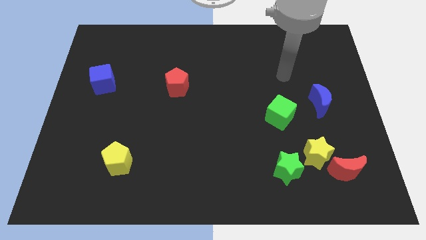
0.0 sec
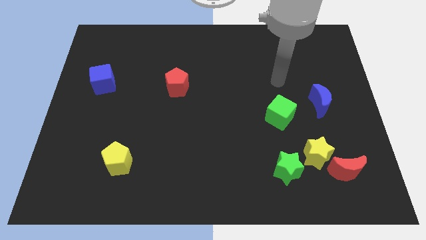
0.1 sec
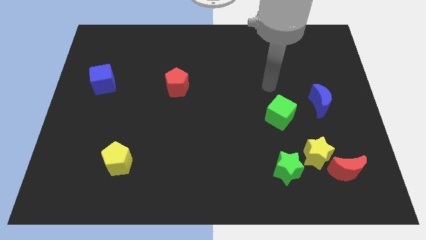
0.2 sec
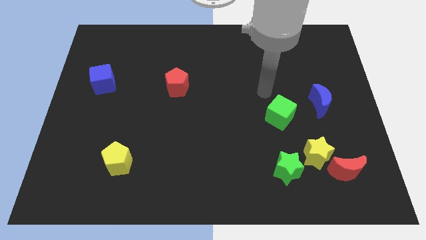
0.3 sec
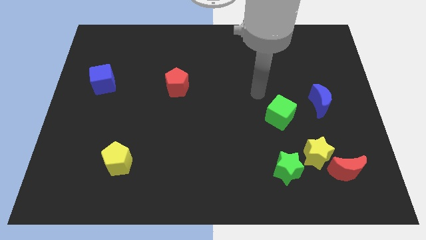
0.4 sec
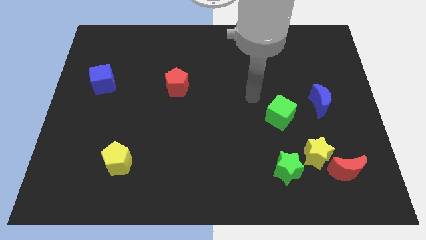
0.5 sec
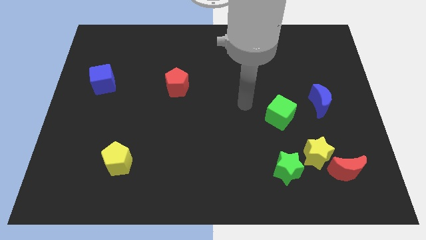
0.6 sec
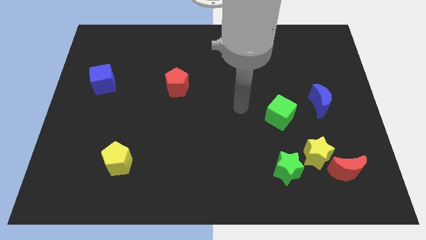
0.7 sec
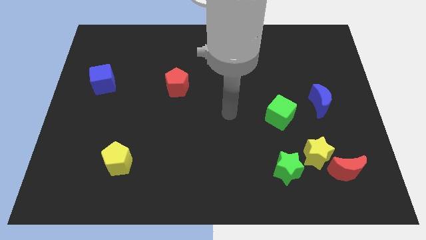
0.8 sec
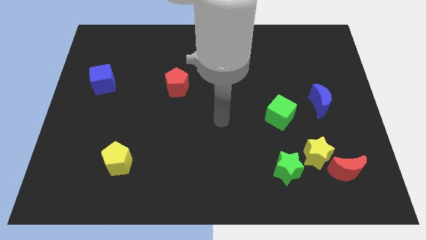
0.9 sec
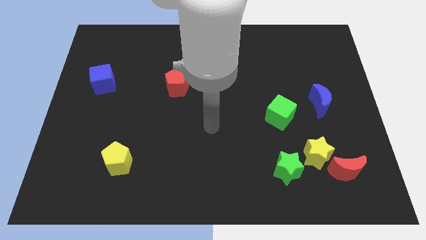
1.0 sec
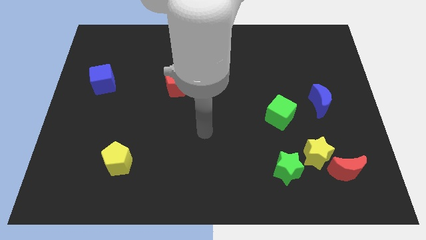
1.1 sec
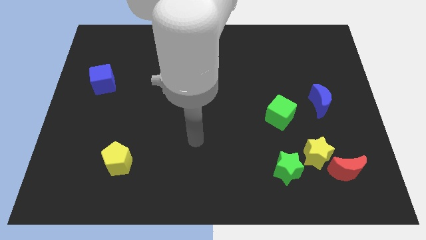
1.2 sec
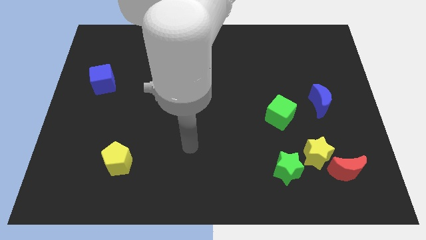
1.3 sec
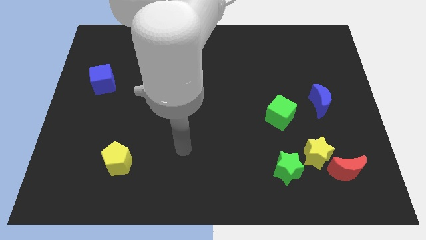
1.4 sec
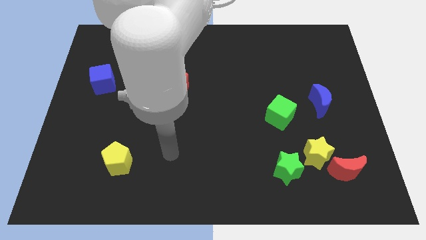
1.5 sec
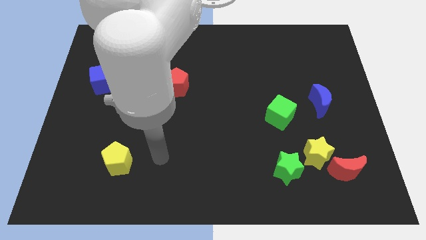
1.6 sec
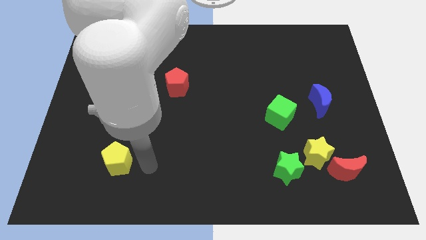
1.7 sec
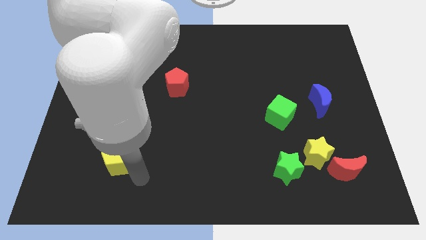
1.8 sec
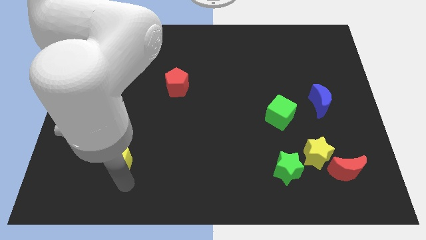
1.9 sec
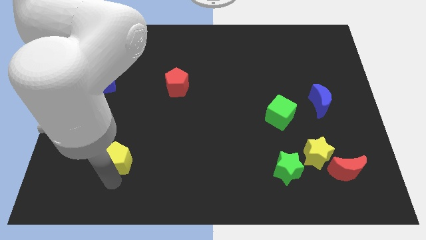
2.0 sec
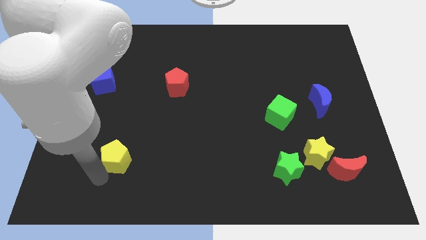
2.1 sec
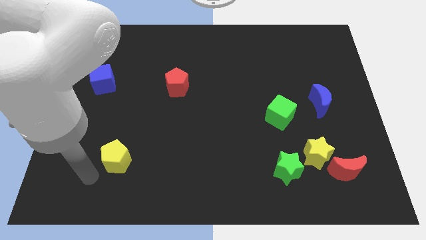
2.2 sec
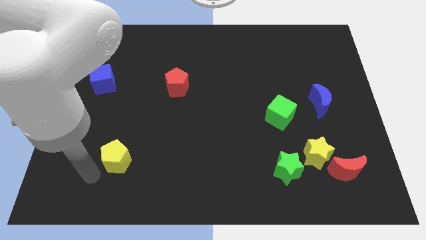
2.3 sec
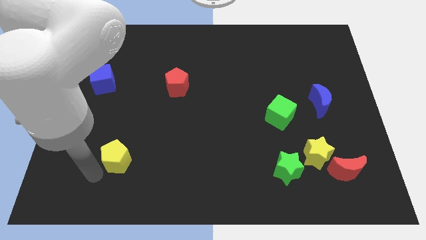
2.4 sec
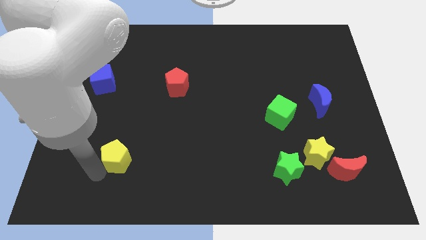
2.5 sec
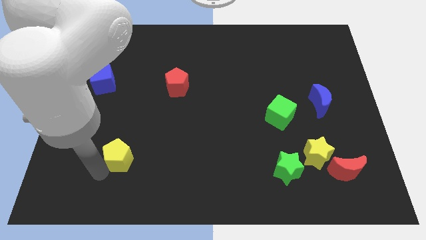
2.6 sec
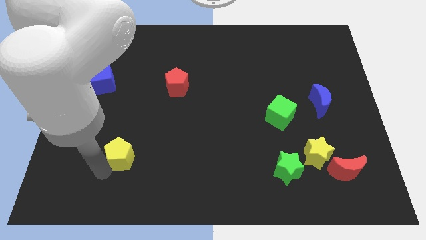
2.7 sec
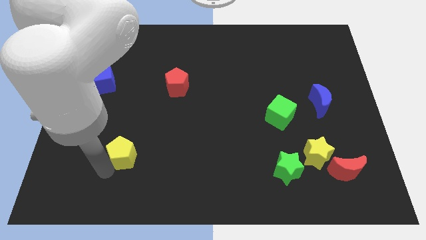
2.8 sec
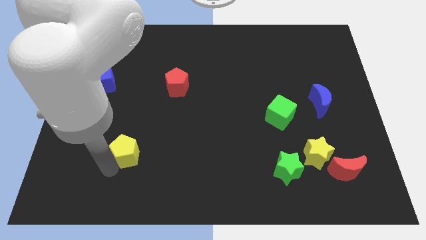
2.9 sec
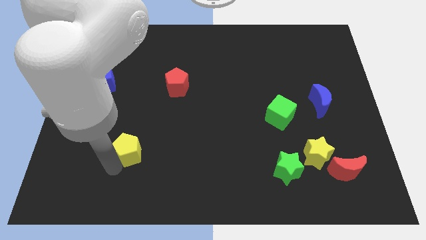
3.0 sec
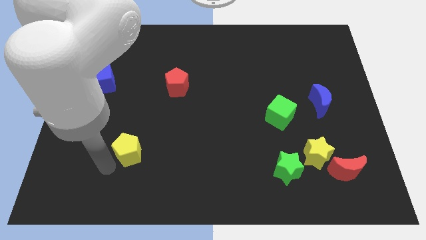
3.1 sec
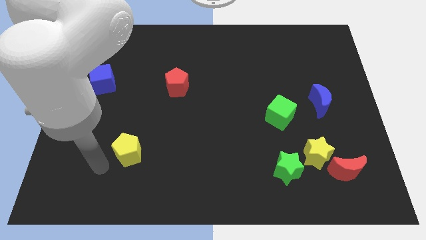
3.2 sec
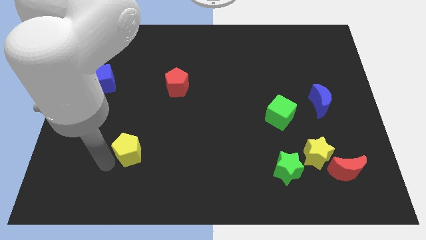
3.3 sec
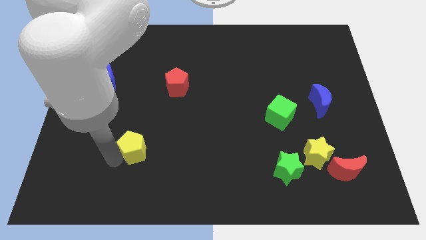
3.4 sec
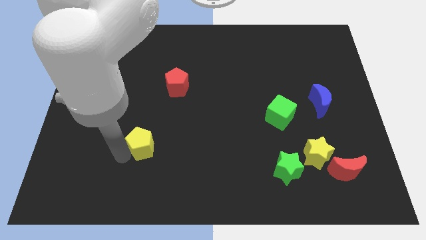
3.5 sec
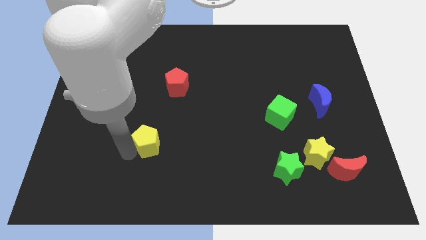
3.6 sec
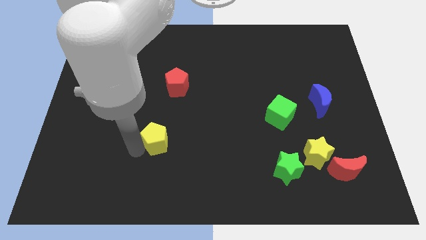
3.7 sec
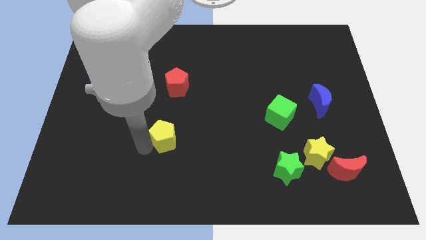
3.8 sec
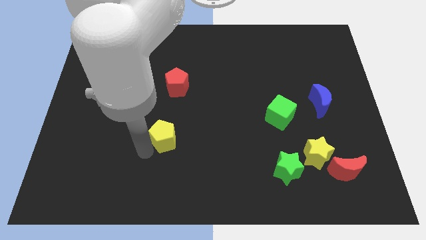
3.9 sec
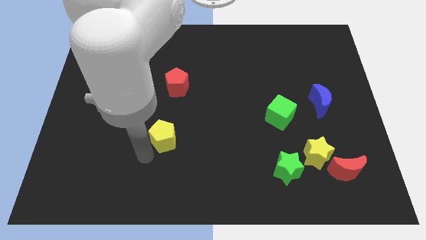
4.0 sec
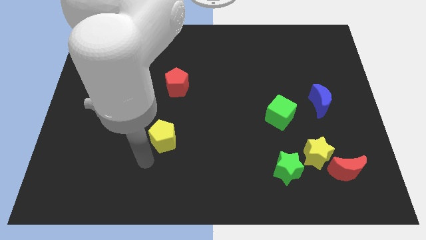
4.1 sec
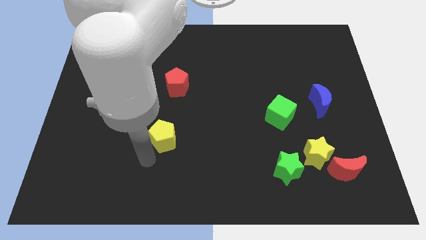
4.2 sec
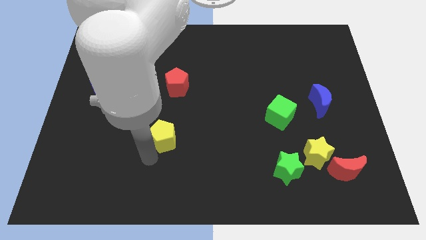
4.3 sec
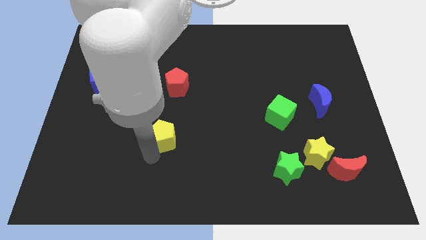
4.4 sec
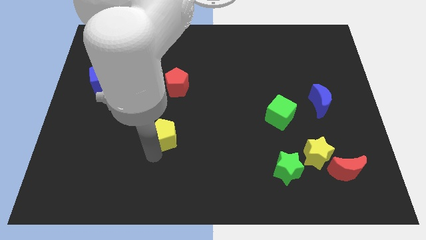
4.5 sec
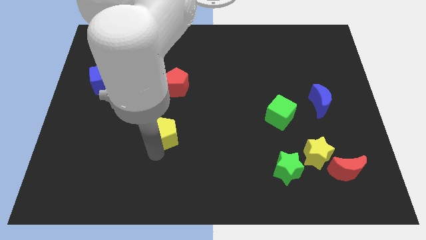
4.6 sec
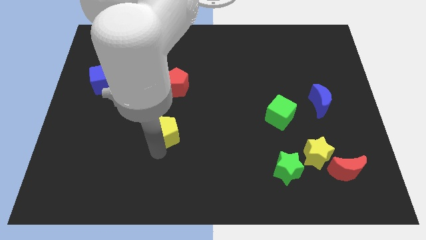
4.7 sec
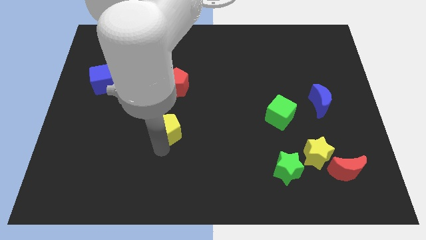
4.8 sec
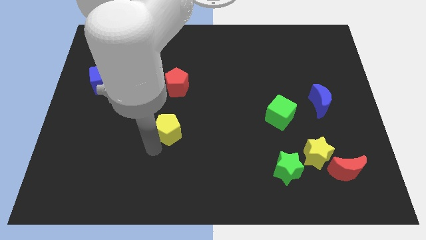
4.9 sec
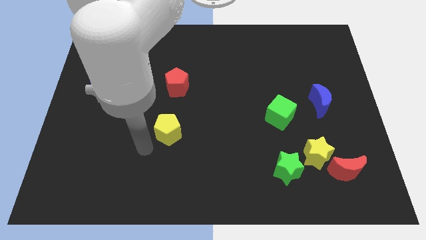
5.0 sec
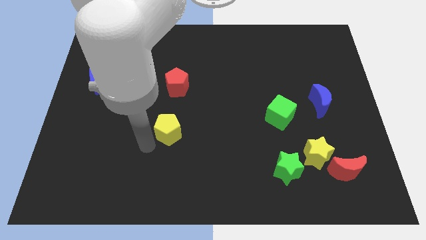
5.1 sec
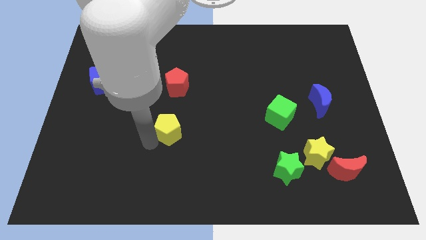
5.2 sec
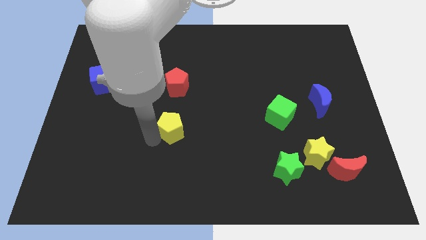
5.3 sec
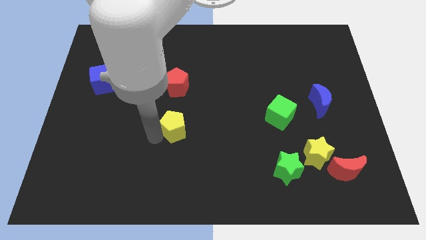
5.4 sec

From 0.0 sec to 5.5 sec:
push the yellow pentagon to the center of the board
